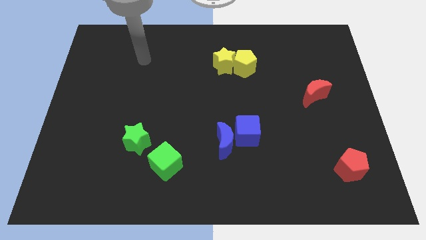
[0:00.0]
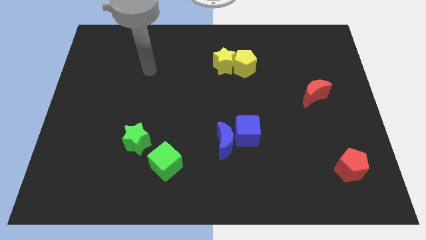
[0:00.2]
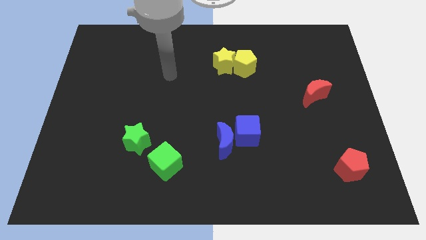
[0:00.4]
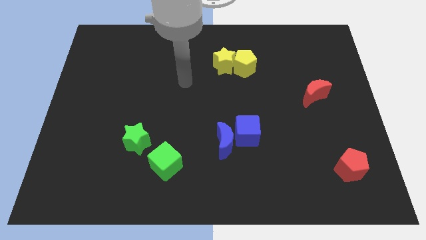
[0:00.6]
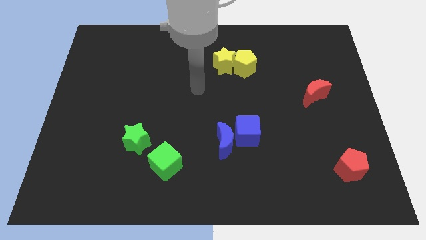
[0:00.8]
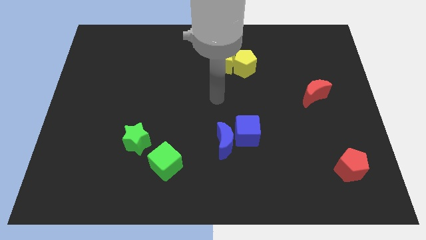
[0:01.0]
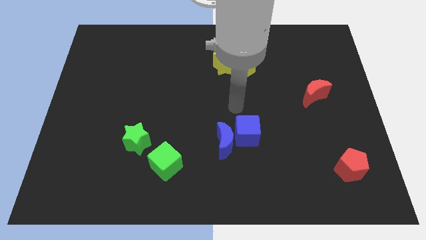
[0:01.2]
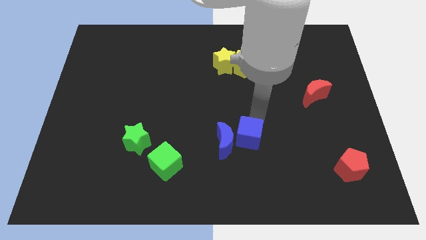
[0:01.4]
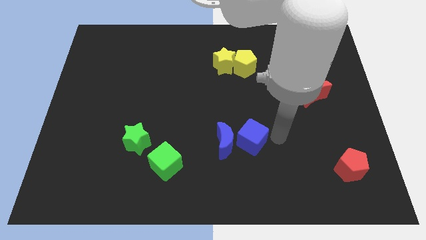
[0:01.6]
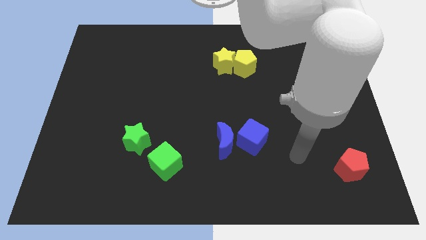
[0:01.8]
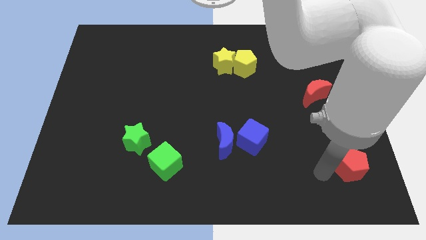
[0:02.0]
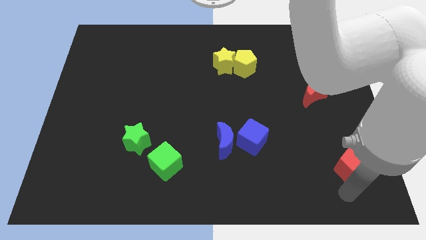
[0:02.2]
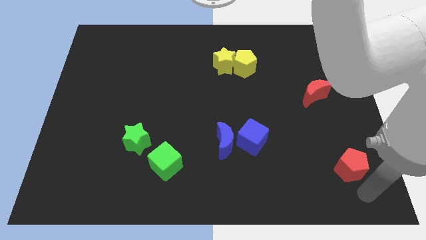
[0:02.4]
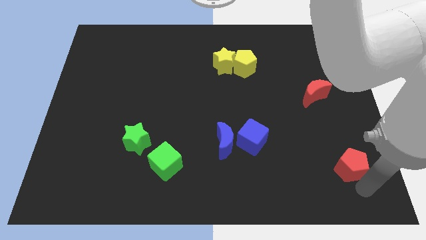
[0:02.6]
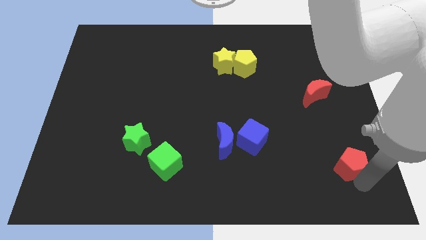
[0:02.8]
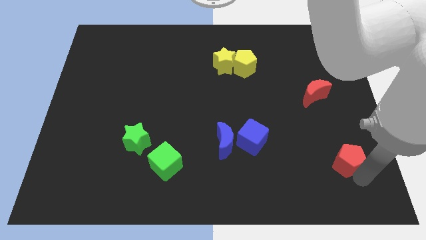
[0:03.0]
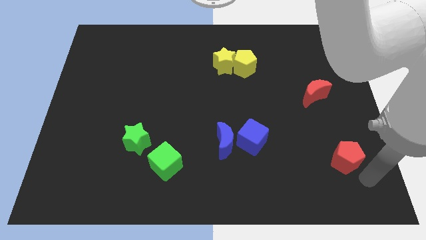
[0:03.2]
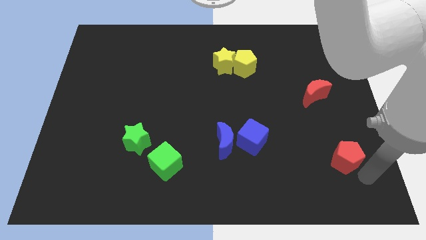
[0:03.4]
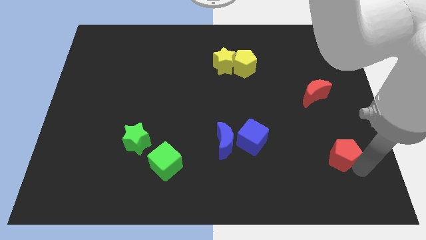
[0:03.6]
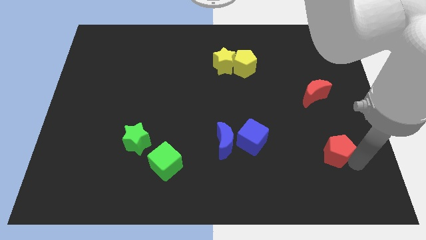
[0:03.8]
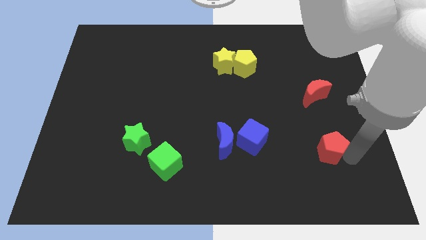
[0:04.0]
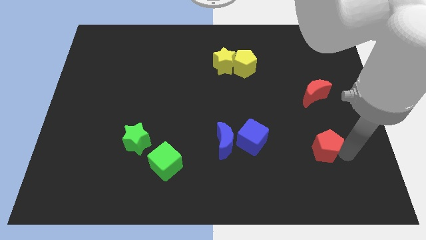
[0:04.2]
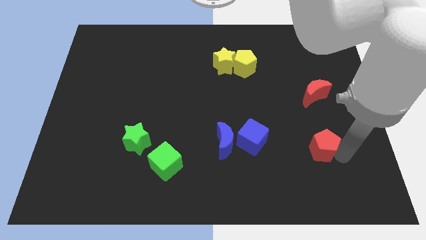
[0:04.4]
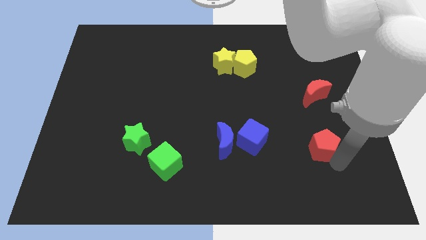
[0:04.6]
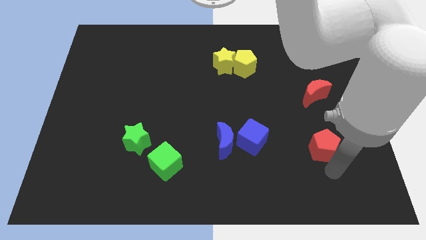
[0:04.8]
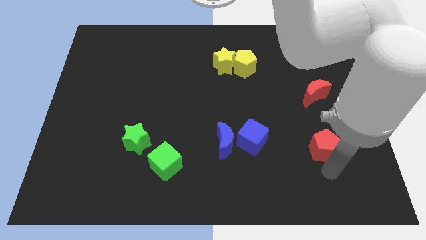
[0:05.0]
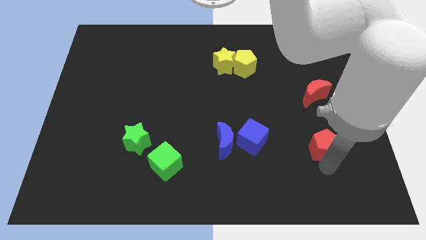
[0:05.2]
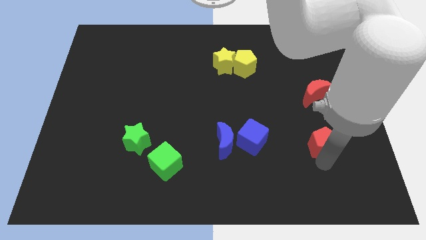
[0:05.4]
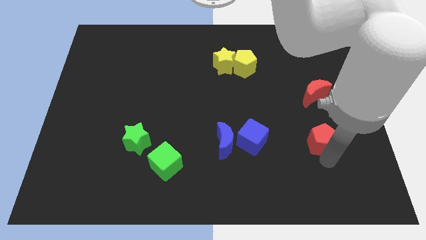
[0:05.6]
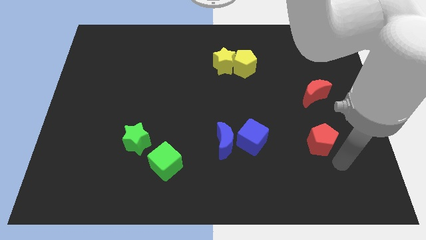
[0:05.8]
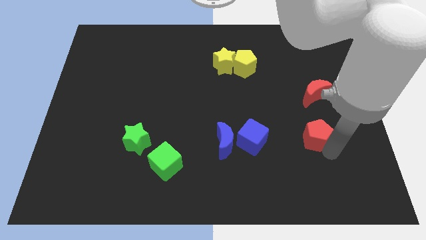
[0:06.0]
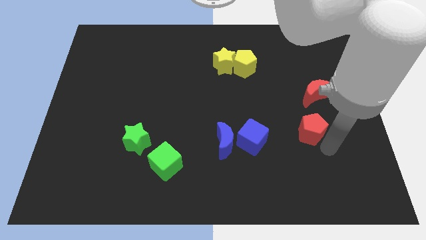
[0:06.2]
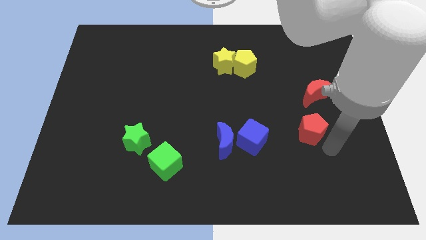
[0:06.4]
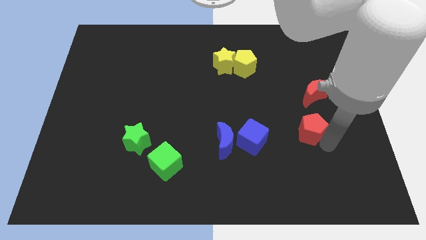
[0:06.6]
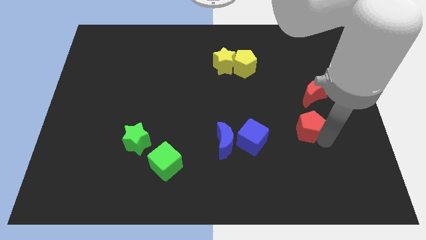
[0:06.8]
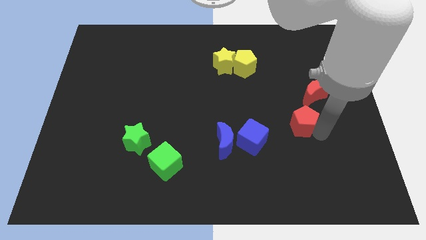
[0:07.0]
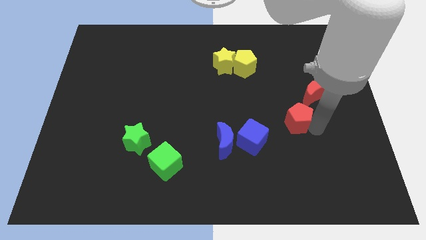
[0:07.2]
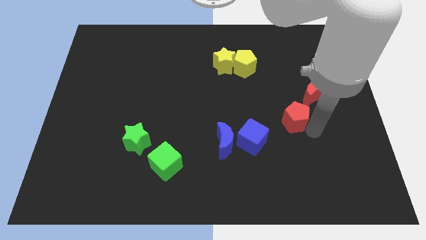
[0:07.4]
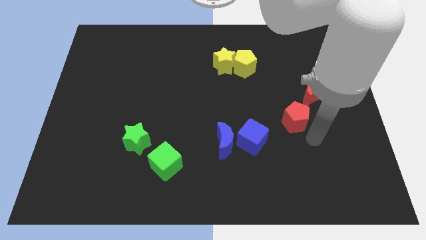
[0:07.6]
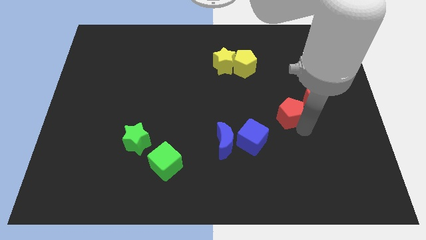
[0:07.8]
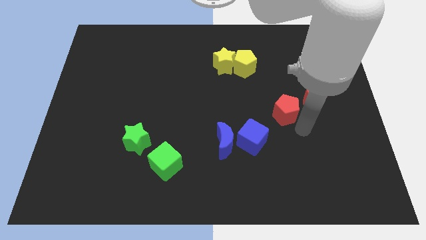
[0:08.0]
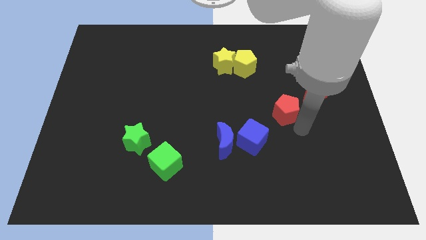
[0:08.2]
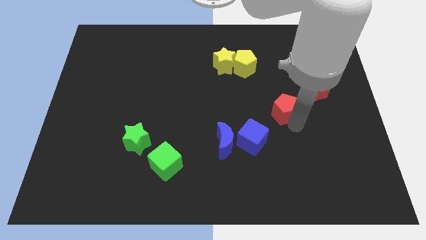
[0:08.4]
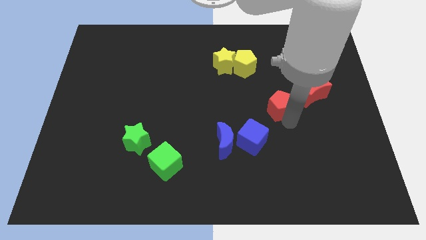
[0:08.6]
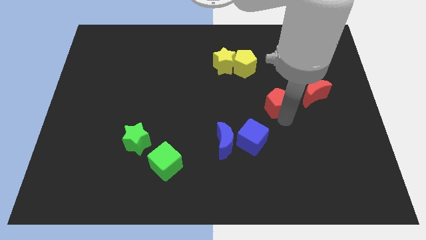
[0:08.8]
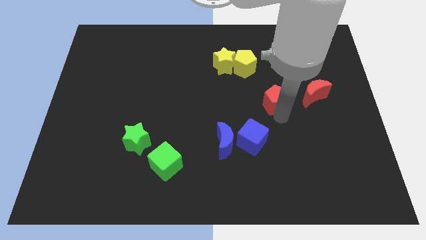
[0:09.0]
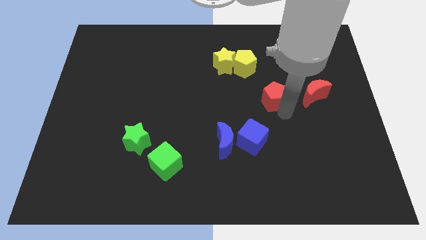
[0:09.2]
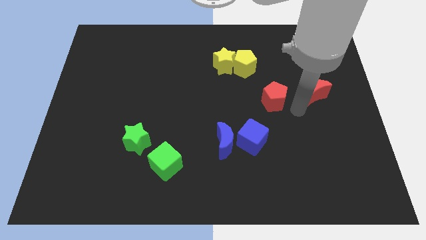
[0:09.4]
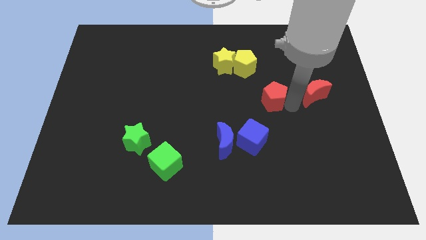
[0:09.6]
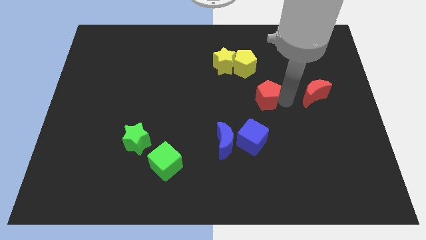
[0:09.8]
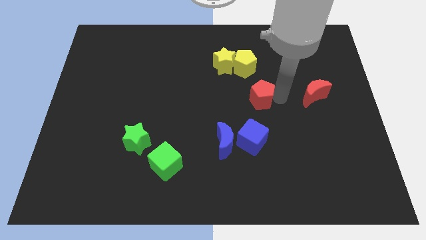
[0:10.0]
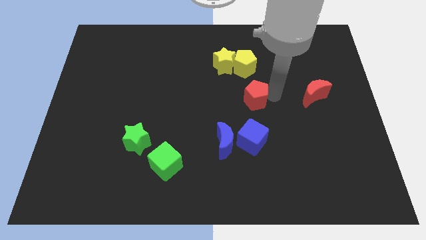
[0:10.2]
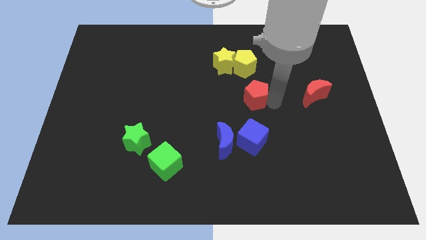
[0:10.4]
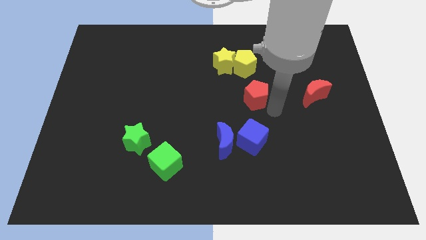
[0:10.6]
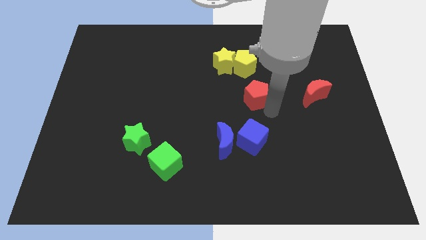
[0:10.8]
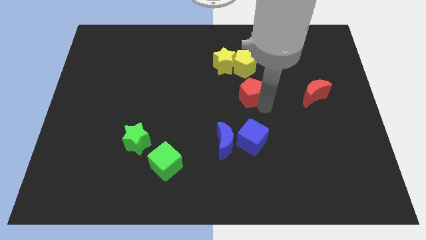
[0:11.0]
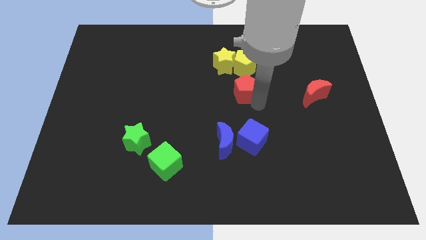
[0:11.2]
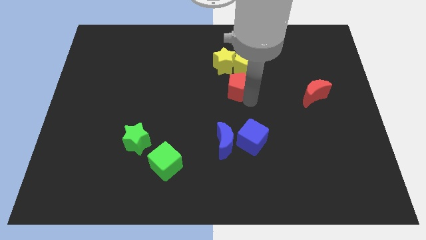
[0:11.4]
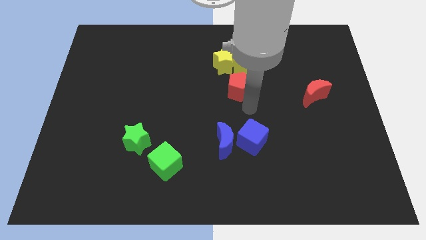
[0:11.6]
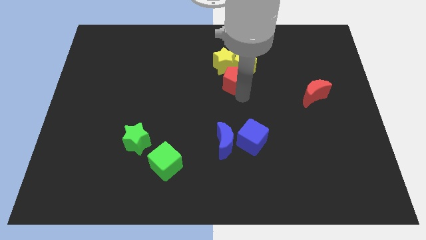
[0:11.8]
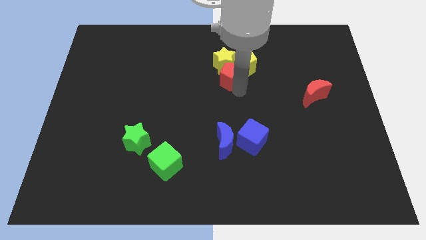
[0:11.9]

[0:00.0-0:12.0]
slide the red pentagon towards the yellow star

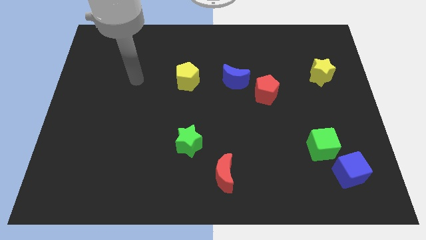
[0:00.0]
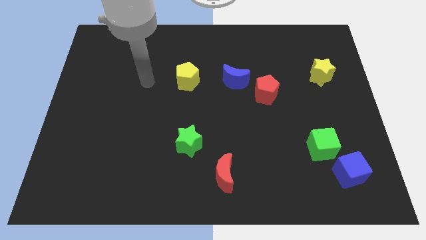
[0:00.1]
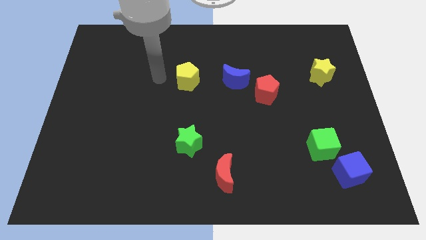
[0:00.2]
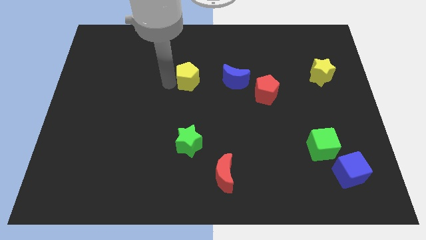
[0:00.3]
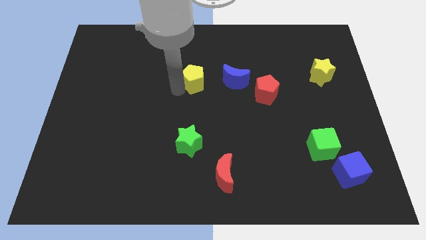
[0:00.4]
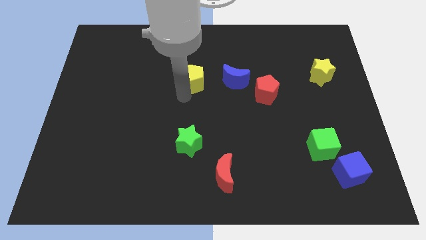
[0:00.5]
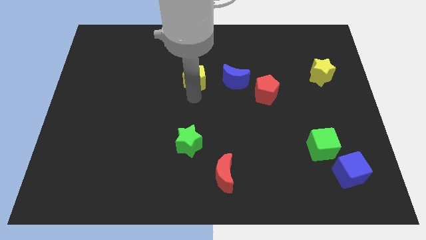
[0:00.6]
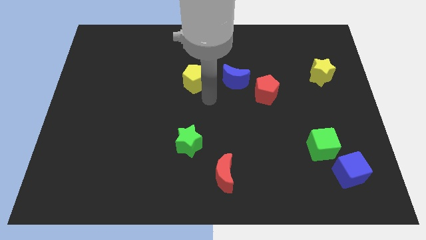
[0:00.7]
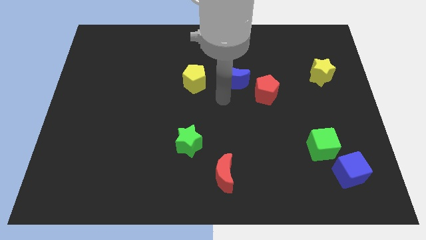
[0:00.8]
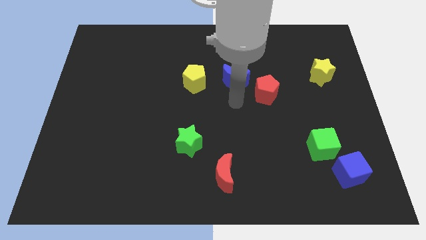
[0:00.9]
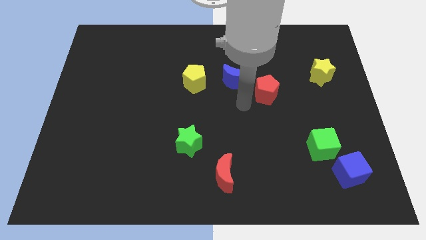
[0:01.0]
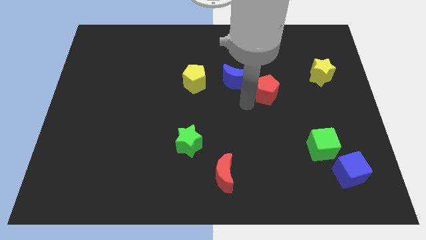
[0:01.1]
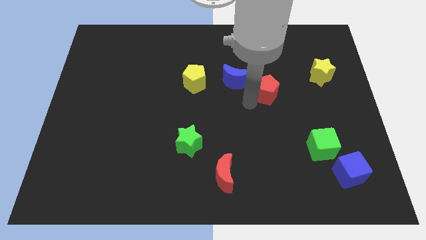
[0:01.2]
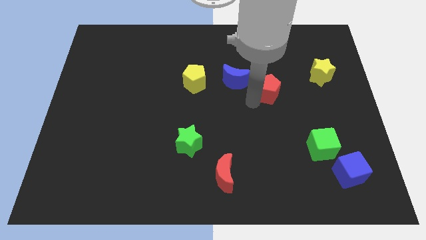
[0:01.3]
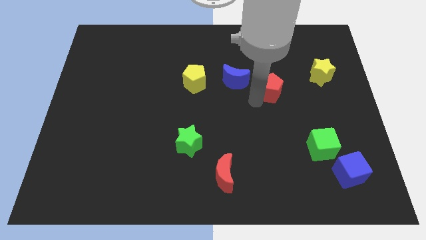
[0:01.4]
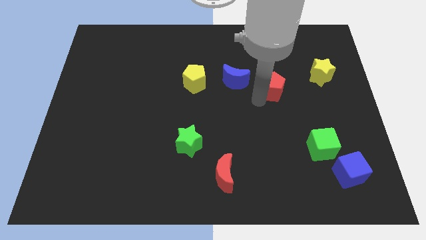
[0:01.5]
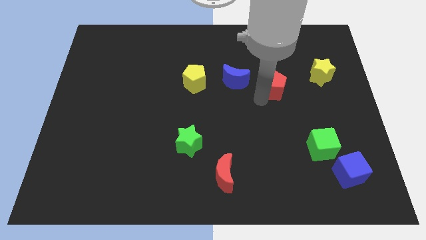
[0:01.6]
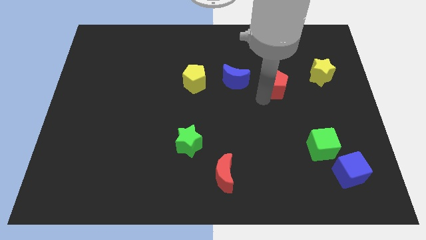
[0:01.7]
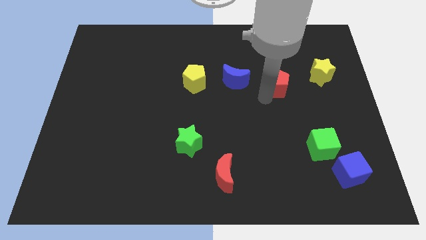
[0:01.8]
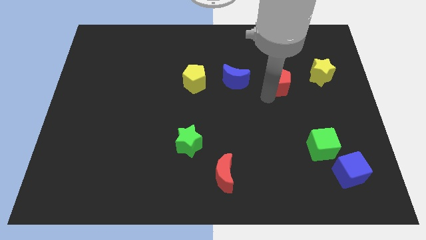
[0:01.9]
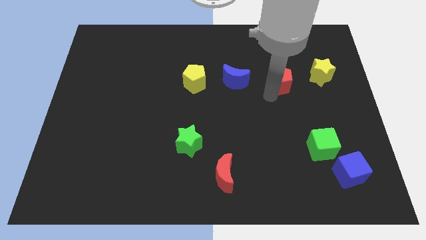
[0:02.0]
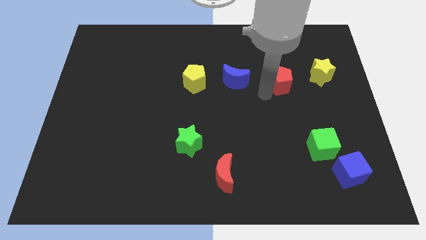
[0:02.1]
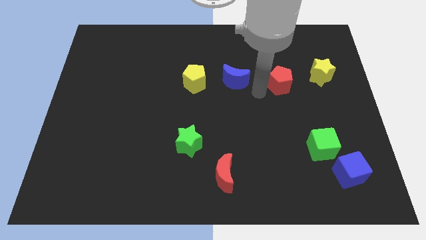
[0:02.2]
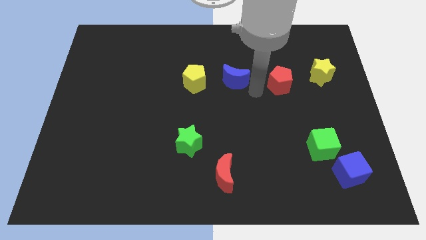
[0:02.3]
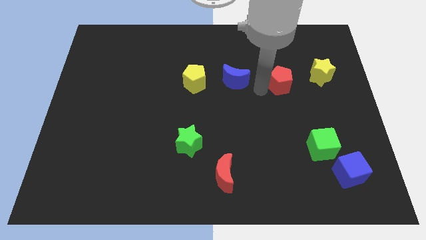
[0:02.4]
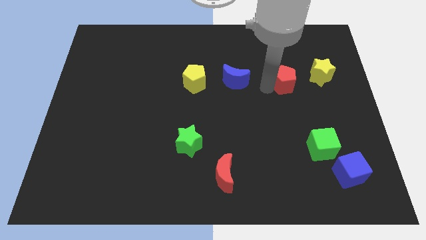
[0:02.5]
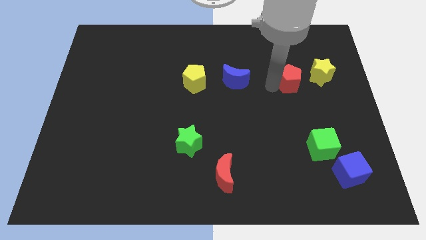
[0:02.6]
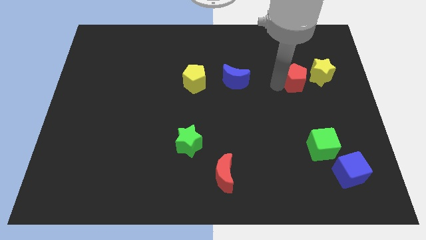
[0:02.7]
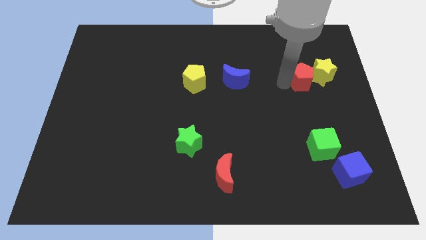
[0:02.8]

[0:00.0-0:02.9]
move the red pentagon towards the yellow star
